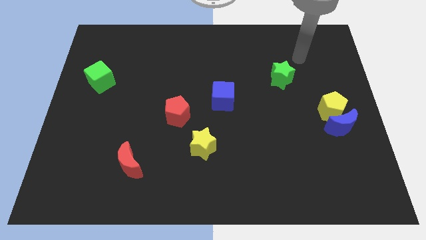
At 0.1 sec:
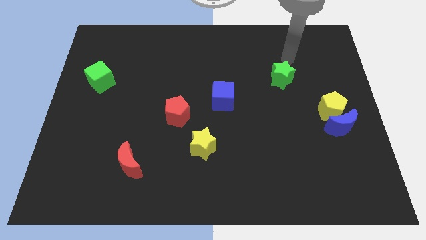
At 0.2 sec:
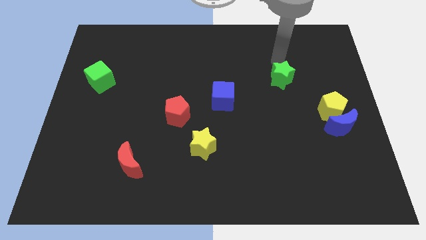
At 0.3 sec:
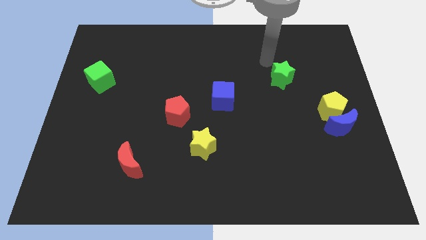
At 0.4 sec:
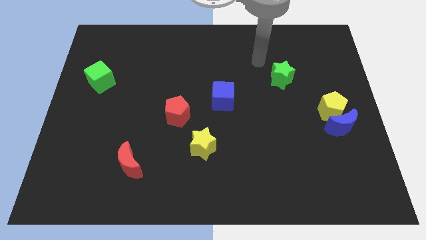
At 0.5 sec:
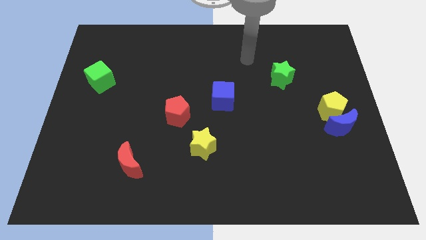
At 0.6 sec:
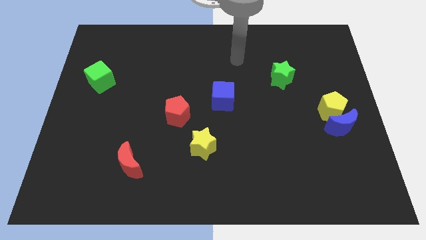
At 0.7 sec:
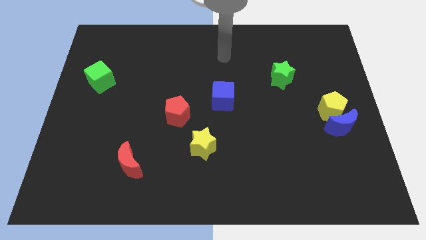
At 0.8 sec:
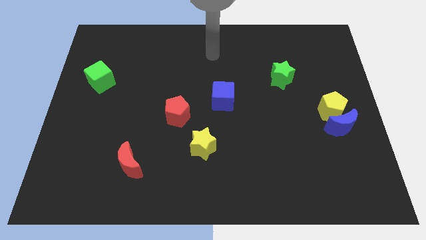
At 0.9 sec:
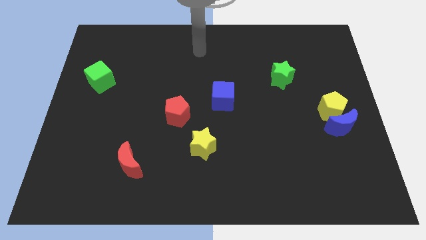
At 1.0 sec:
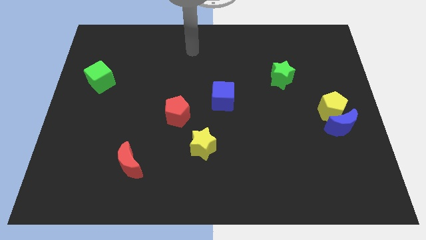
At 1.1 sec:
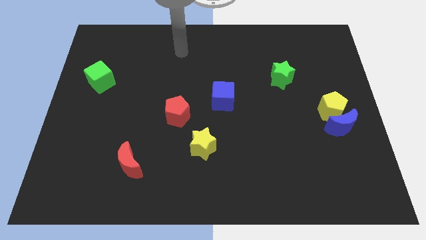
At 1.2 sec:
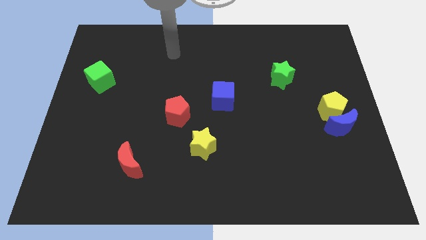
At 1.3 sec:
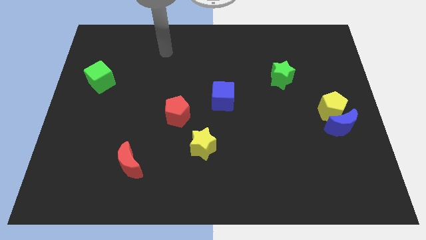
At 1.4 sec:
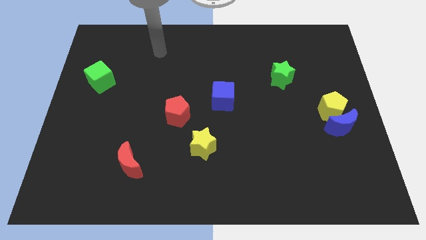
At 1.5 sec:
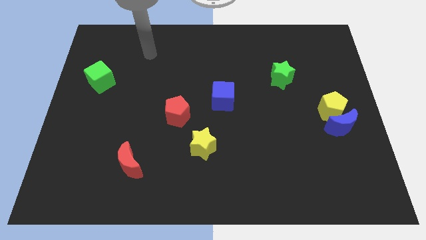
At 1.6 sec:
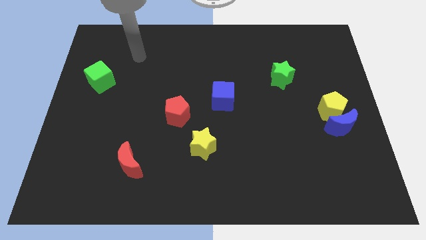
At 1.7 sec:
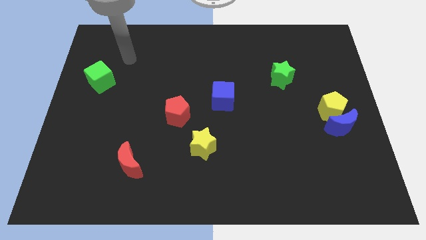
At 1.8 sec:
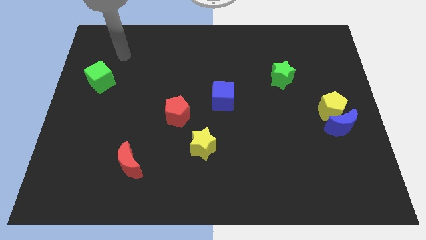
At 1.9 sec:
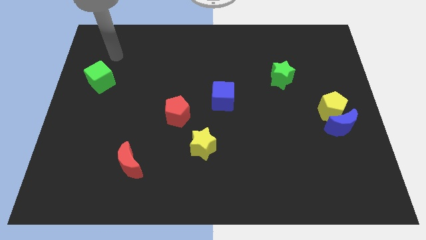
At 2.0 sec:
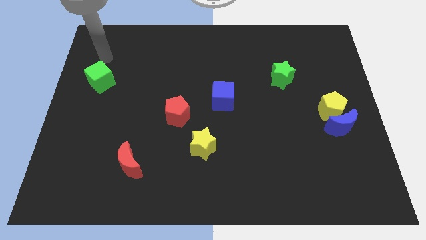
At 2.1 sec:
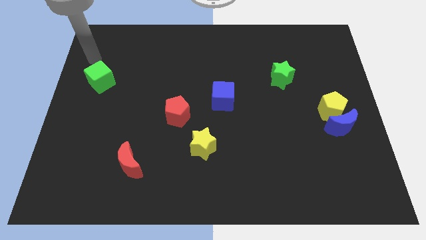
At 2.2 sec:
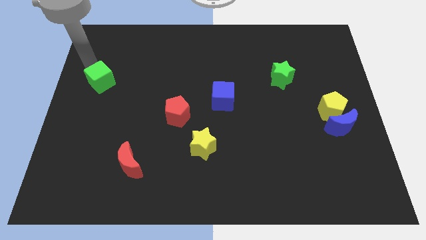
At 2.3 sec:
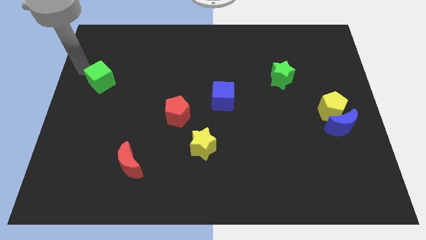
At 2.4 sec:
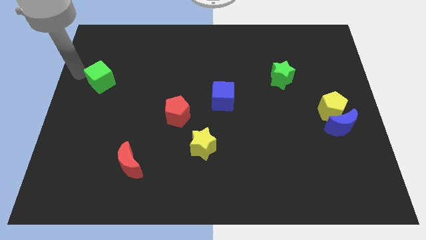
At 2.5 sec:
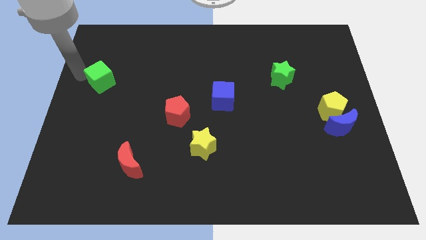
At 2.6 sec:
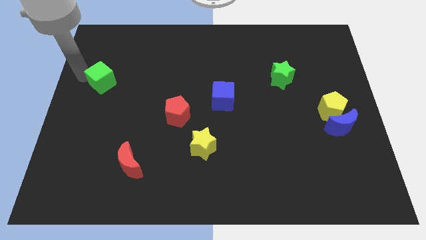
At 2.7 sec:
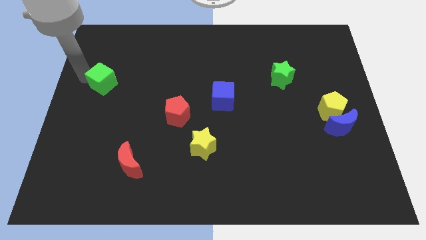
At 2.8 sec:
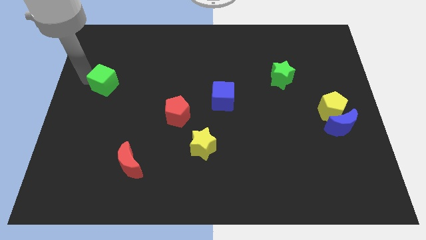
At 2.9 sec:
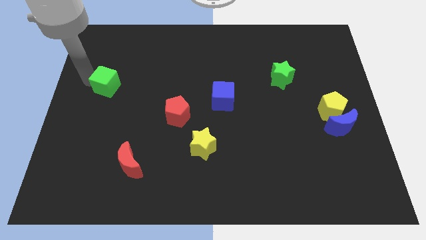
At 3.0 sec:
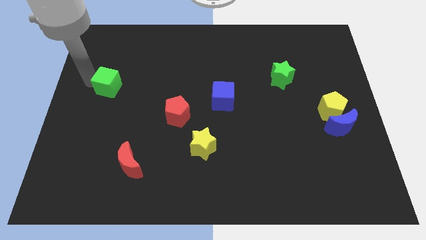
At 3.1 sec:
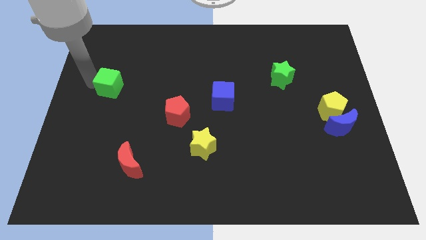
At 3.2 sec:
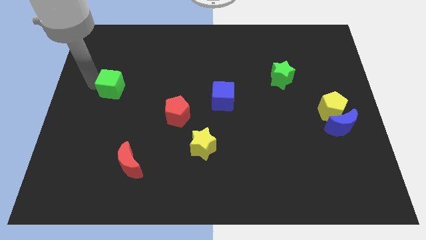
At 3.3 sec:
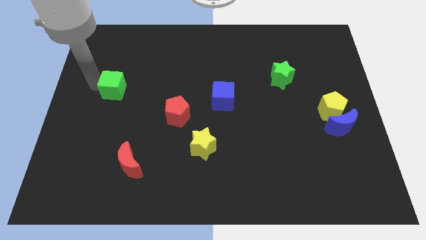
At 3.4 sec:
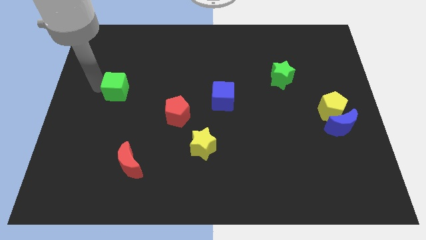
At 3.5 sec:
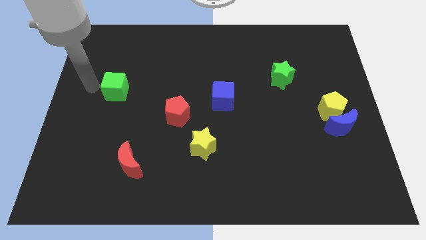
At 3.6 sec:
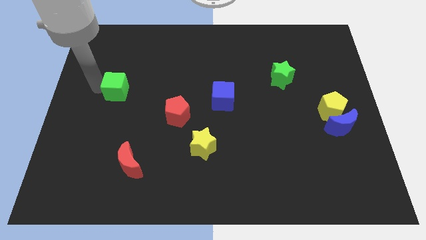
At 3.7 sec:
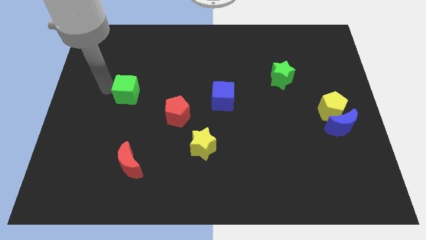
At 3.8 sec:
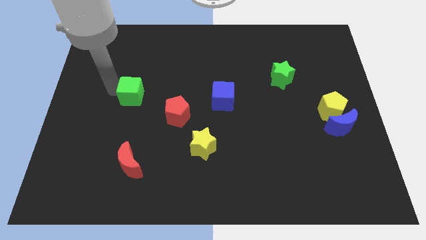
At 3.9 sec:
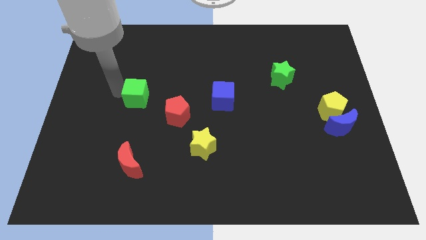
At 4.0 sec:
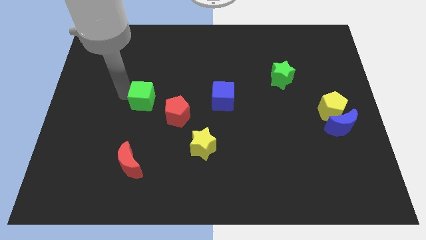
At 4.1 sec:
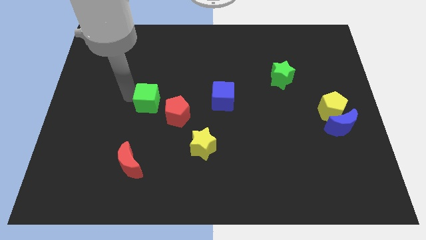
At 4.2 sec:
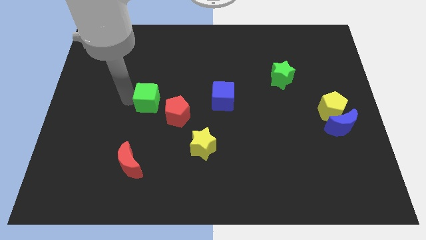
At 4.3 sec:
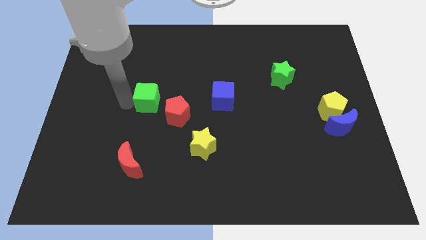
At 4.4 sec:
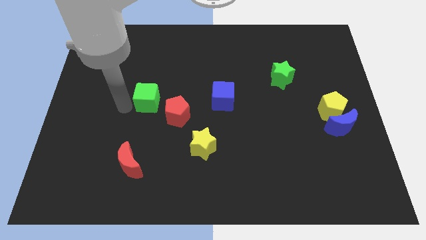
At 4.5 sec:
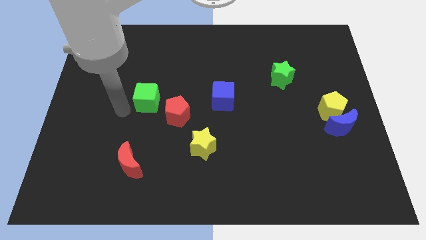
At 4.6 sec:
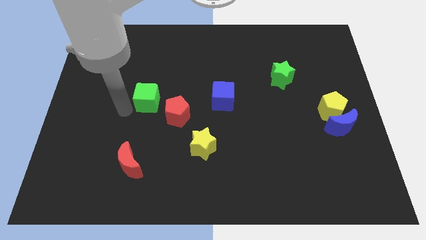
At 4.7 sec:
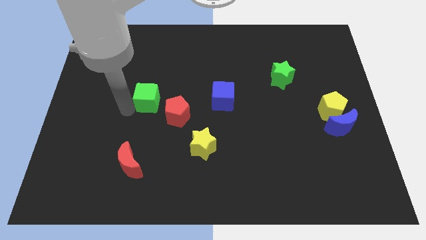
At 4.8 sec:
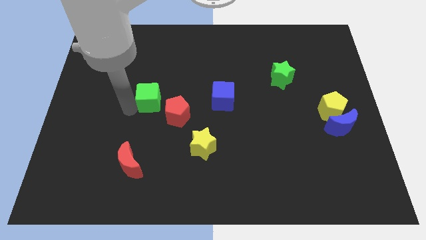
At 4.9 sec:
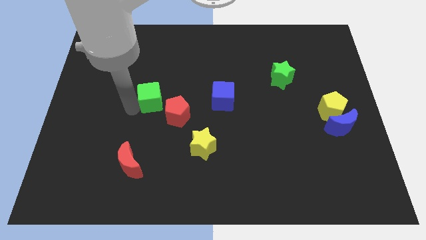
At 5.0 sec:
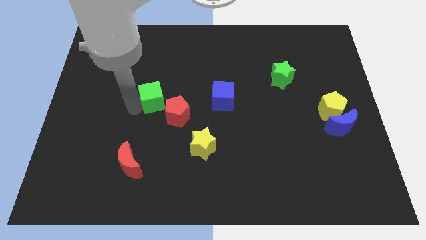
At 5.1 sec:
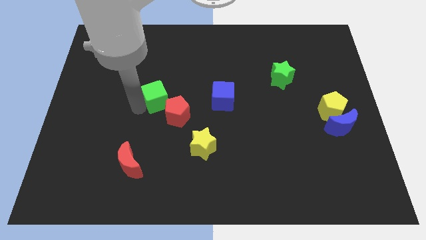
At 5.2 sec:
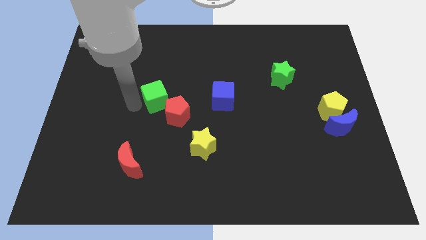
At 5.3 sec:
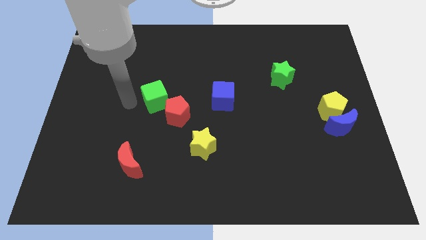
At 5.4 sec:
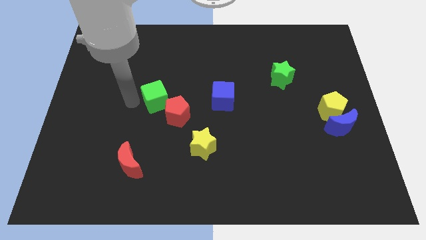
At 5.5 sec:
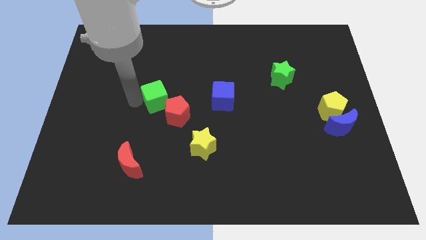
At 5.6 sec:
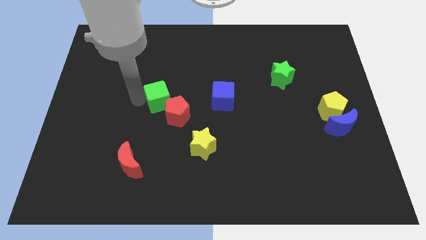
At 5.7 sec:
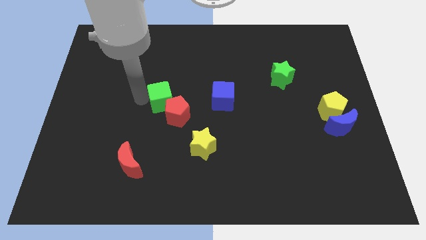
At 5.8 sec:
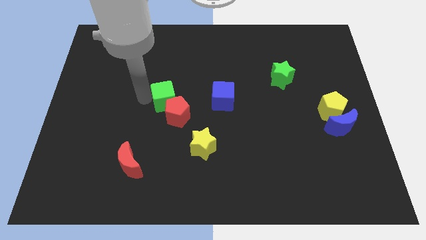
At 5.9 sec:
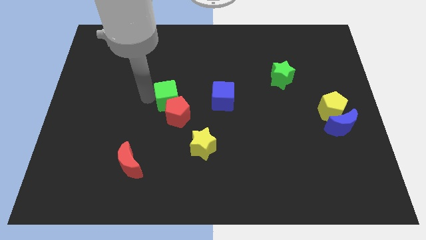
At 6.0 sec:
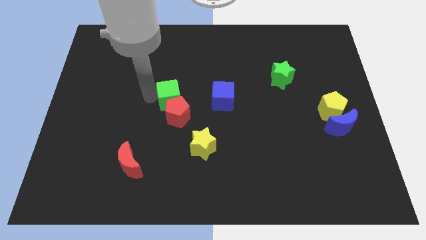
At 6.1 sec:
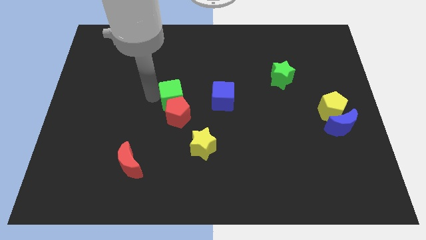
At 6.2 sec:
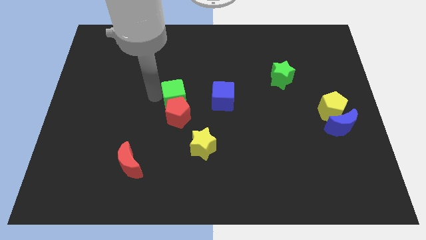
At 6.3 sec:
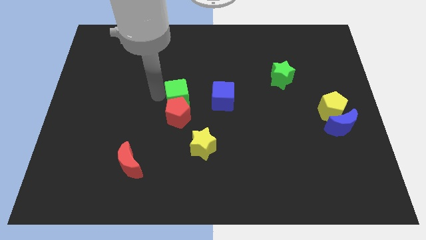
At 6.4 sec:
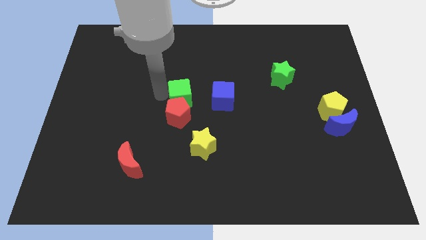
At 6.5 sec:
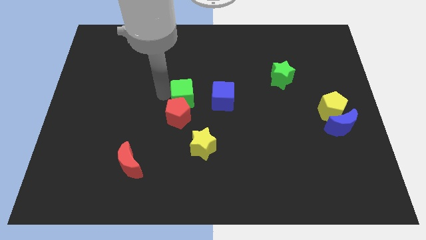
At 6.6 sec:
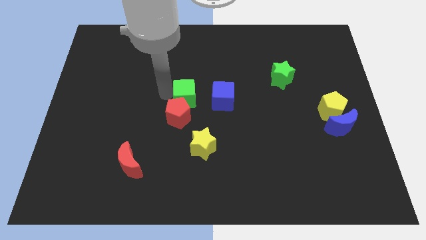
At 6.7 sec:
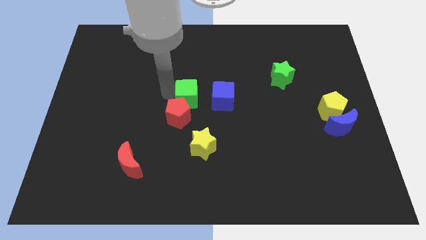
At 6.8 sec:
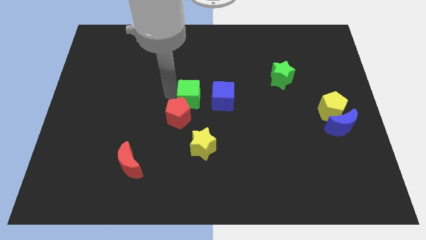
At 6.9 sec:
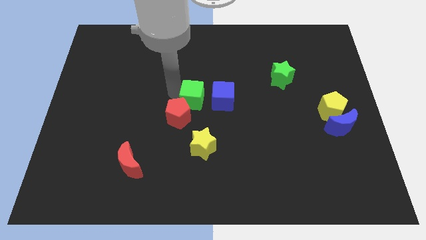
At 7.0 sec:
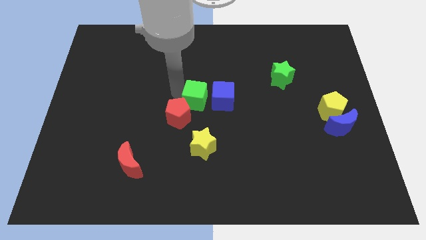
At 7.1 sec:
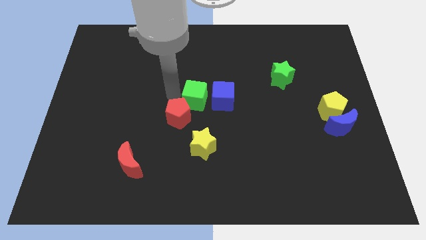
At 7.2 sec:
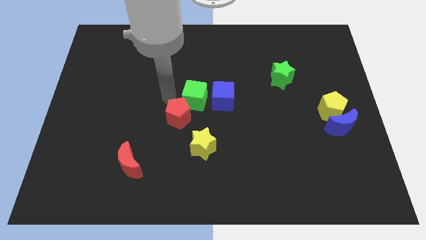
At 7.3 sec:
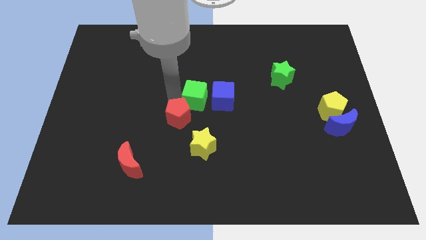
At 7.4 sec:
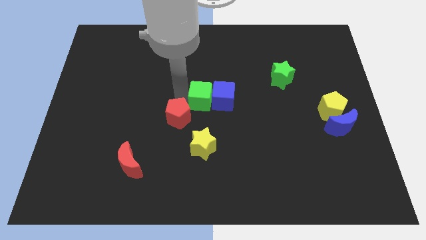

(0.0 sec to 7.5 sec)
push the green cube to the blue cube
